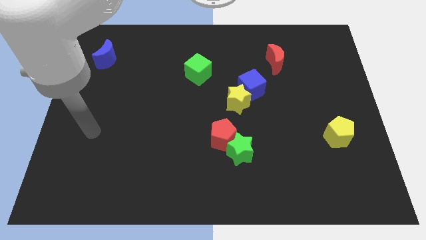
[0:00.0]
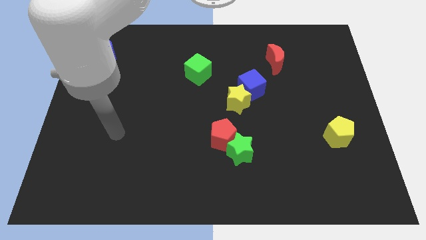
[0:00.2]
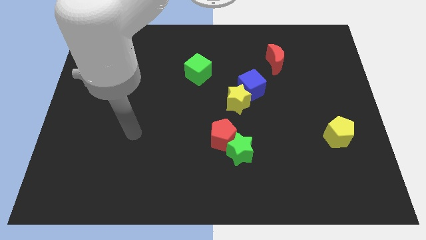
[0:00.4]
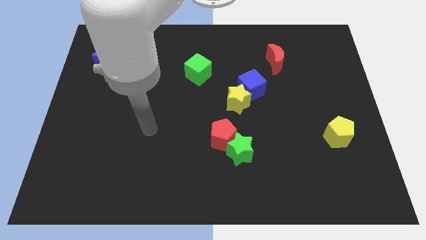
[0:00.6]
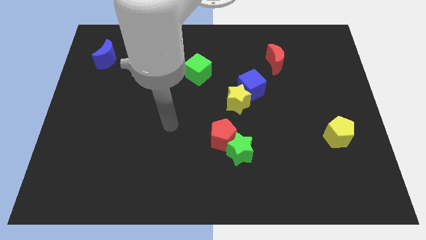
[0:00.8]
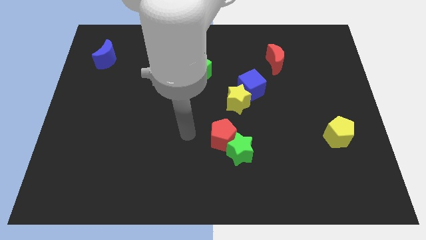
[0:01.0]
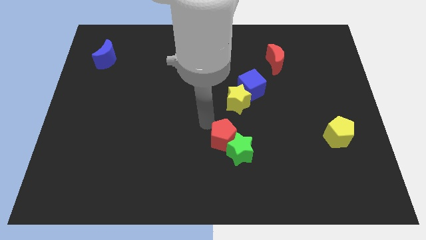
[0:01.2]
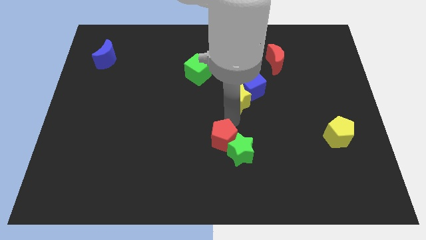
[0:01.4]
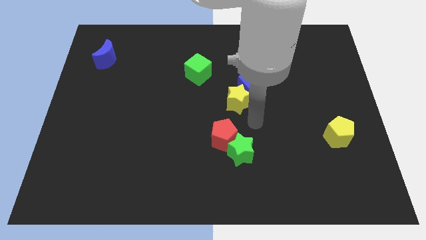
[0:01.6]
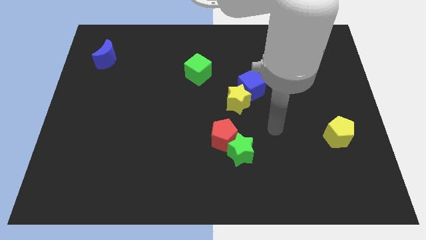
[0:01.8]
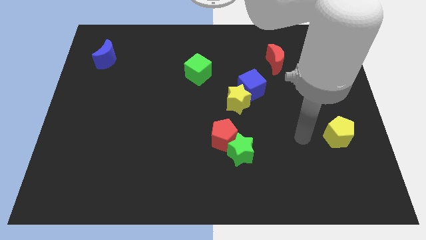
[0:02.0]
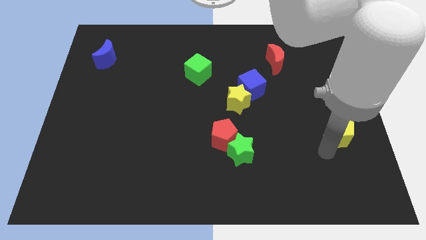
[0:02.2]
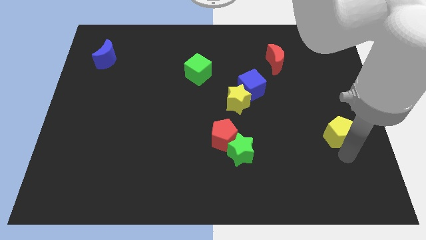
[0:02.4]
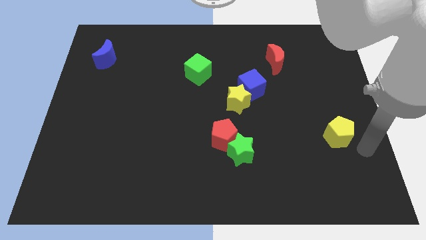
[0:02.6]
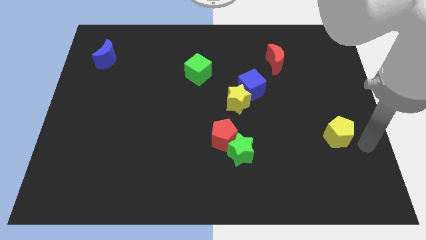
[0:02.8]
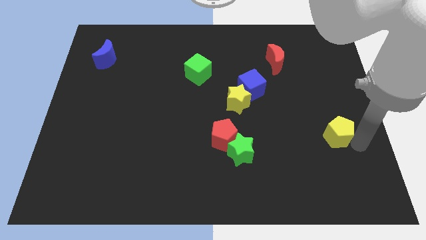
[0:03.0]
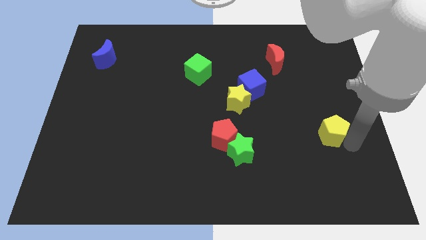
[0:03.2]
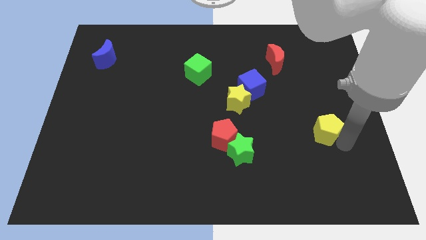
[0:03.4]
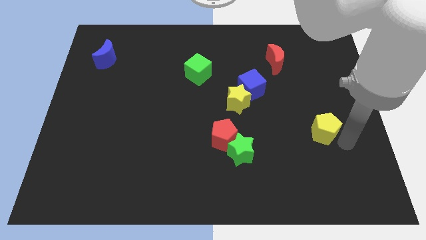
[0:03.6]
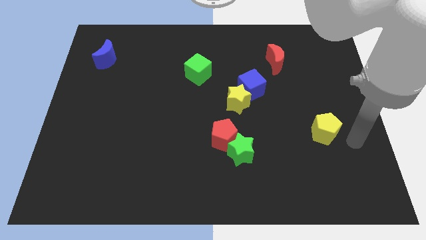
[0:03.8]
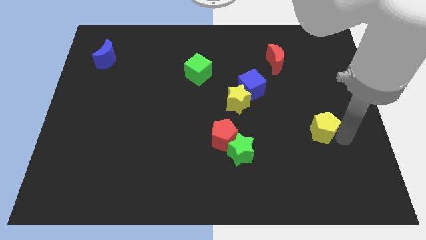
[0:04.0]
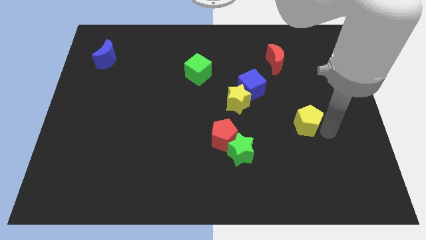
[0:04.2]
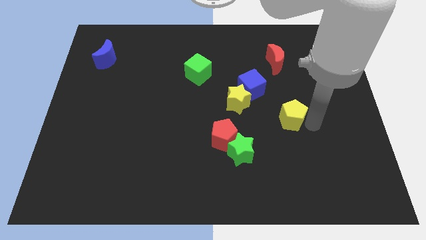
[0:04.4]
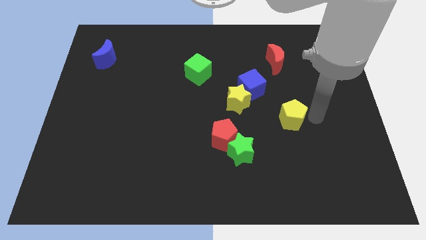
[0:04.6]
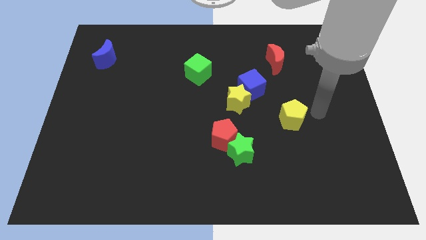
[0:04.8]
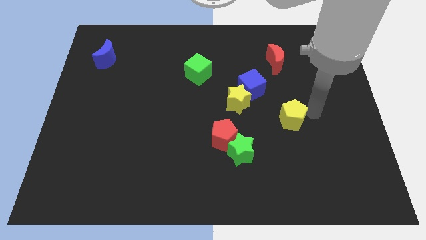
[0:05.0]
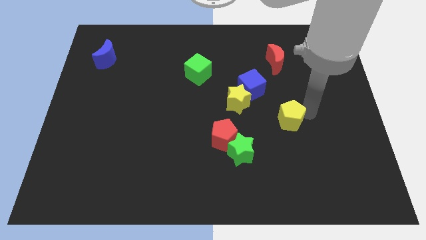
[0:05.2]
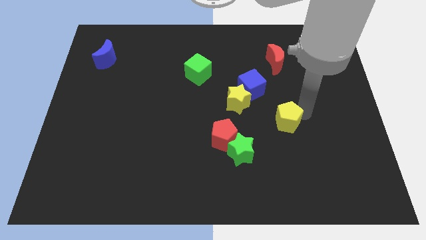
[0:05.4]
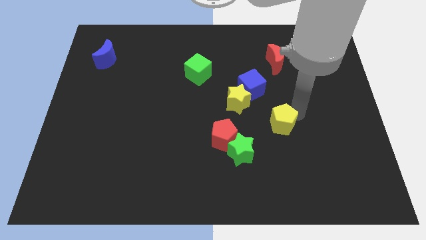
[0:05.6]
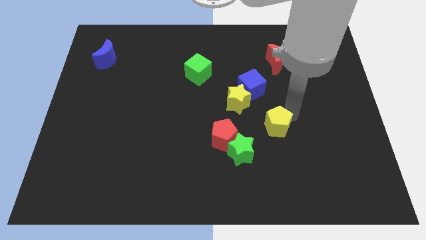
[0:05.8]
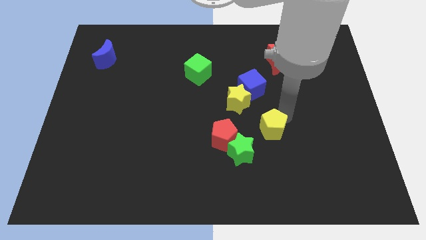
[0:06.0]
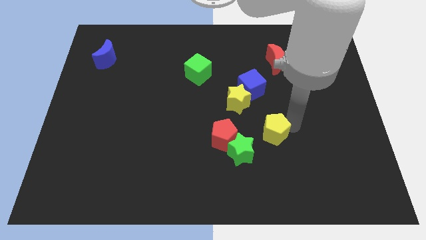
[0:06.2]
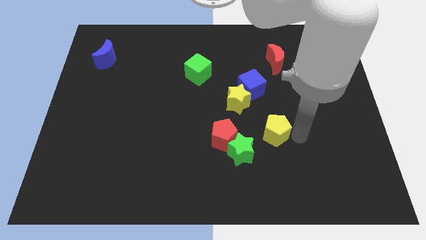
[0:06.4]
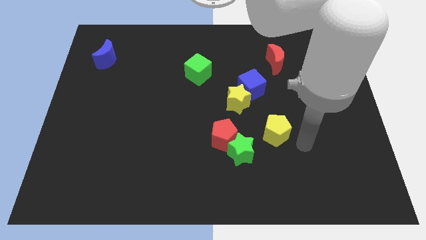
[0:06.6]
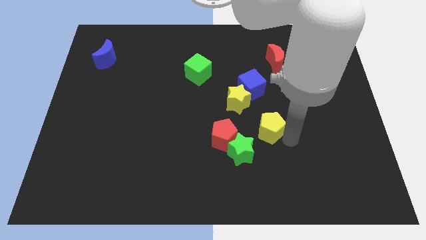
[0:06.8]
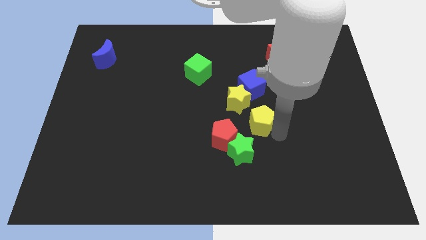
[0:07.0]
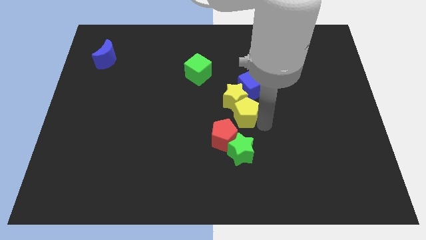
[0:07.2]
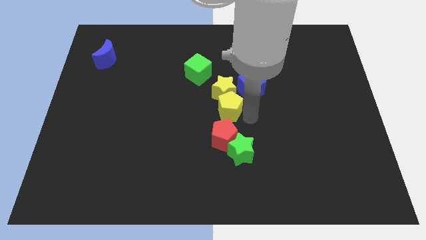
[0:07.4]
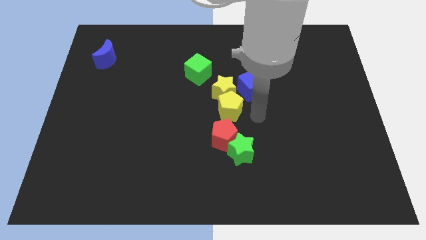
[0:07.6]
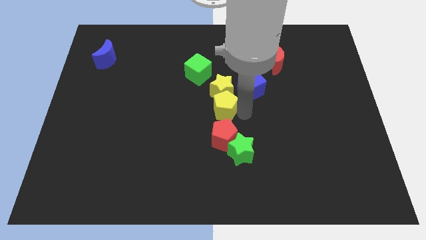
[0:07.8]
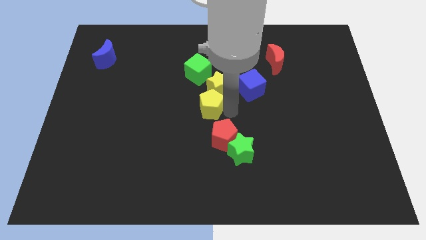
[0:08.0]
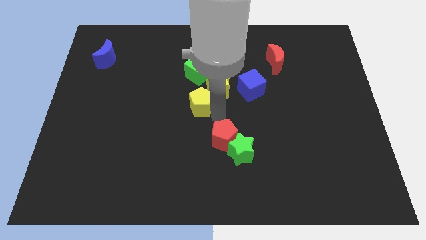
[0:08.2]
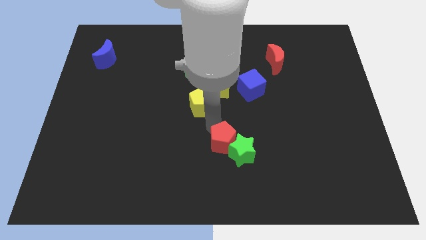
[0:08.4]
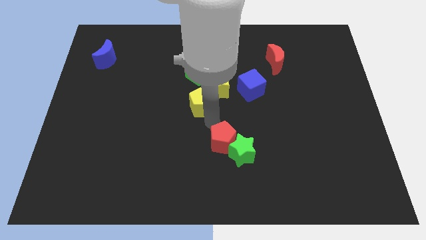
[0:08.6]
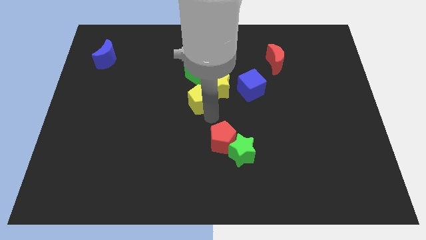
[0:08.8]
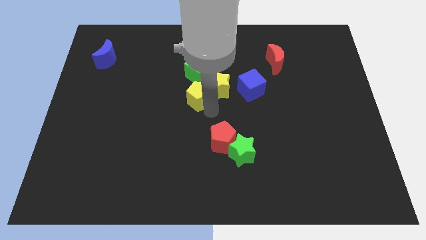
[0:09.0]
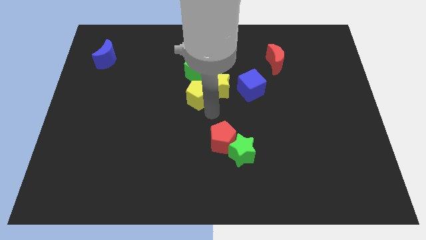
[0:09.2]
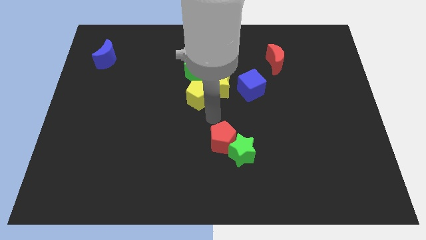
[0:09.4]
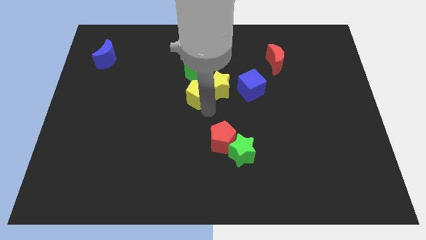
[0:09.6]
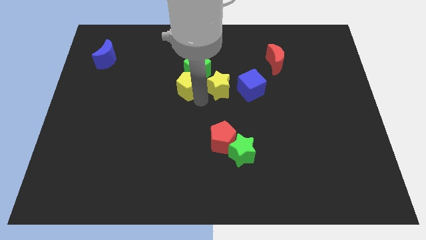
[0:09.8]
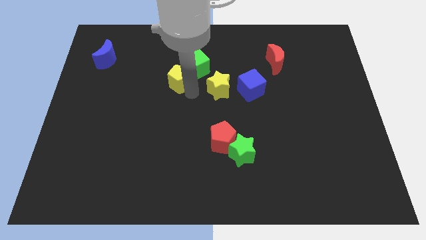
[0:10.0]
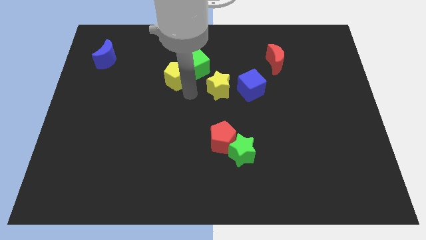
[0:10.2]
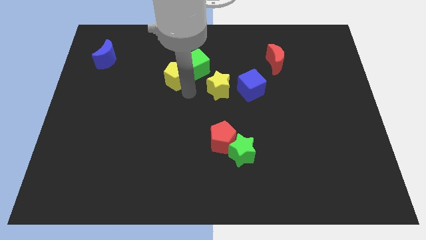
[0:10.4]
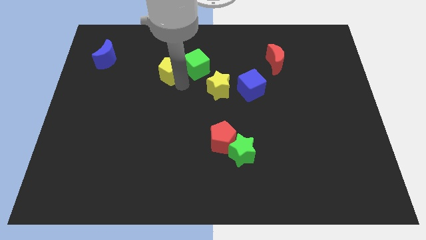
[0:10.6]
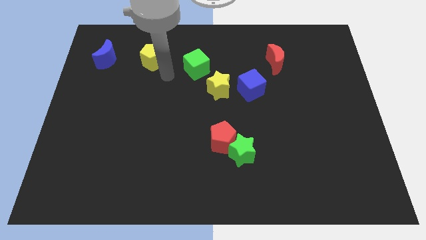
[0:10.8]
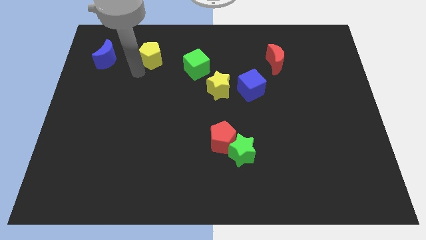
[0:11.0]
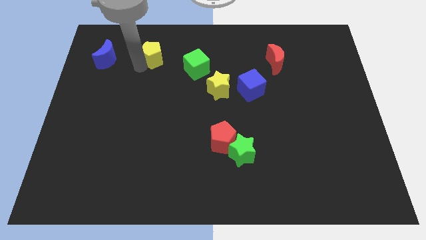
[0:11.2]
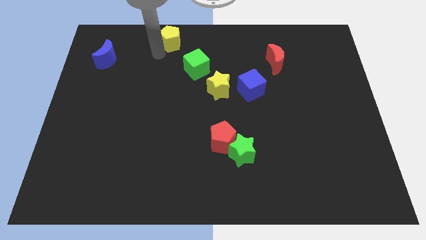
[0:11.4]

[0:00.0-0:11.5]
put the yellow pentagon to the top side

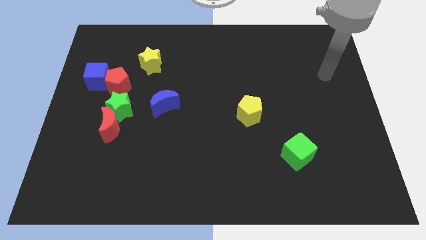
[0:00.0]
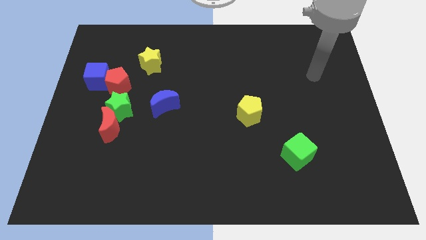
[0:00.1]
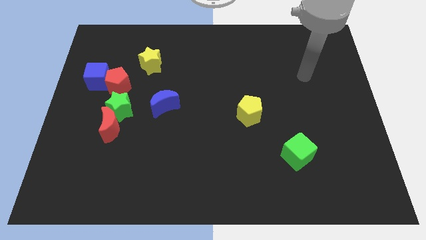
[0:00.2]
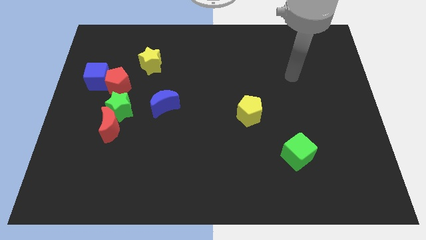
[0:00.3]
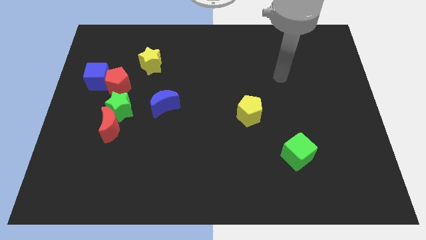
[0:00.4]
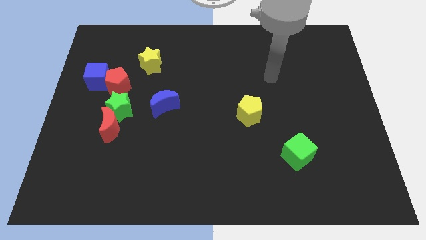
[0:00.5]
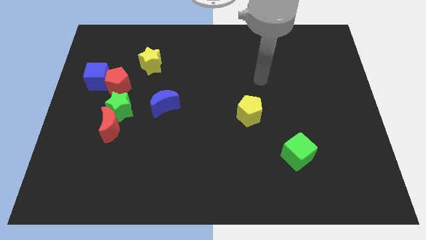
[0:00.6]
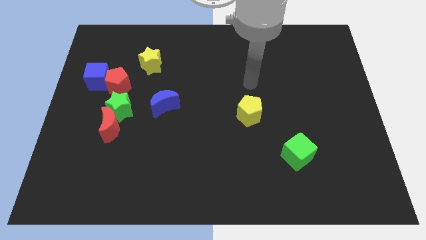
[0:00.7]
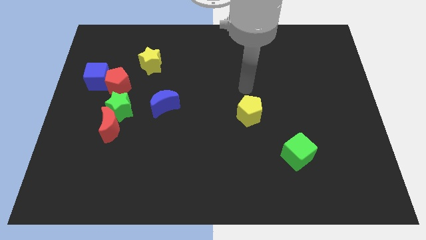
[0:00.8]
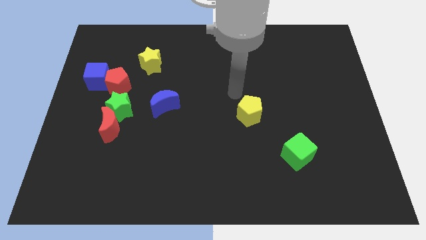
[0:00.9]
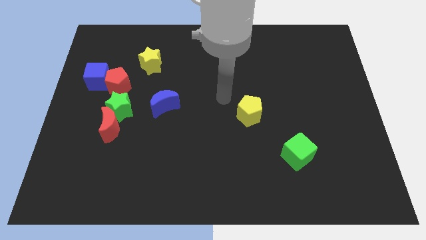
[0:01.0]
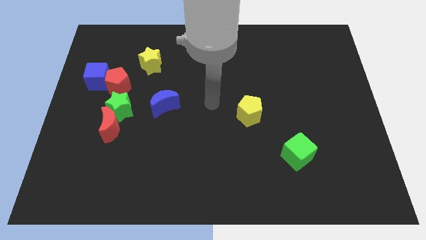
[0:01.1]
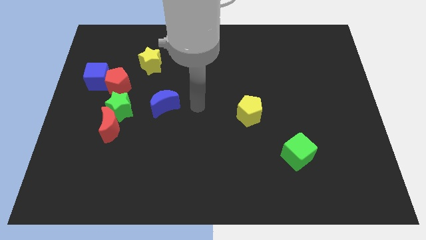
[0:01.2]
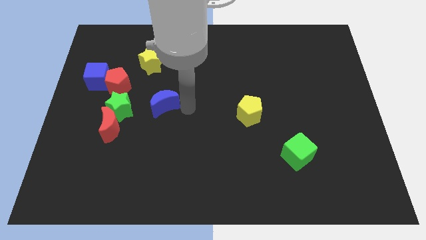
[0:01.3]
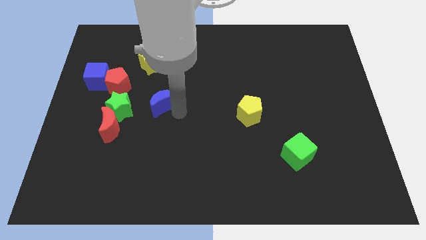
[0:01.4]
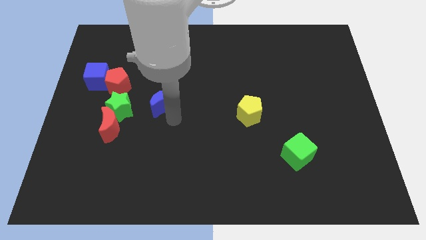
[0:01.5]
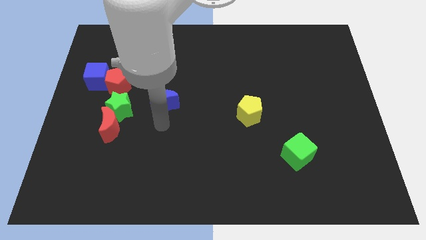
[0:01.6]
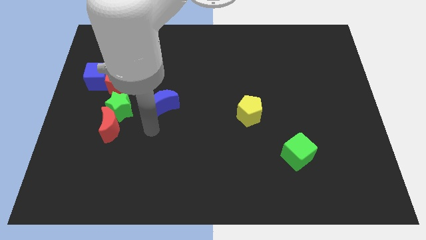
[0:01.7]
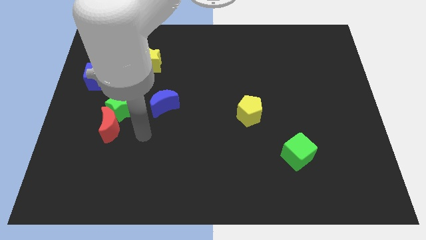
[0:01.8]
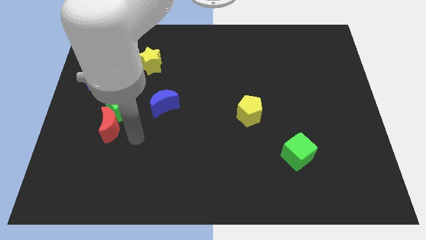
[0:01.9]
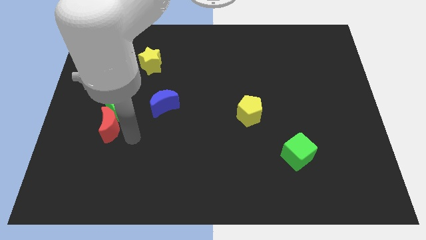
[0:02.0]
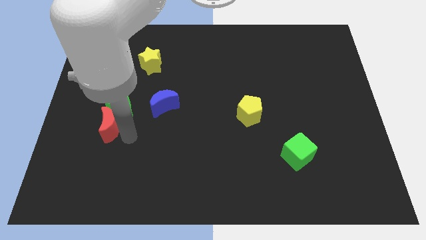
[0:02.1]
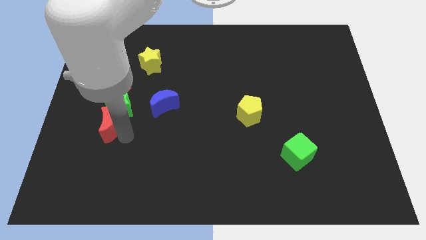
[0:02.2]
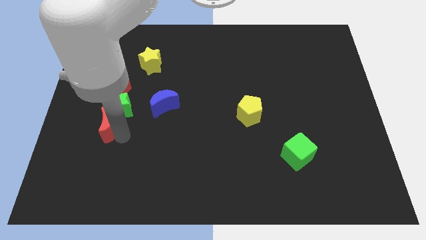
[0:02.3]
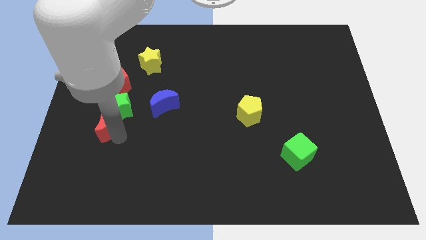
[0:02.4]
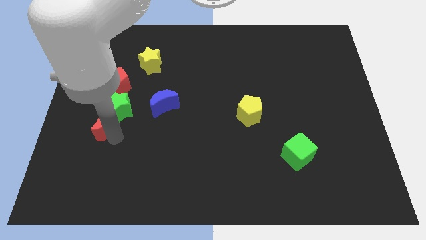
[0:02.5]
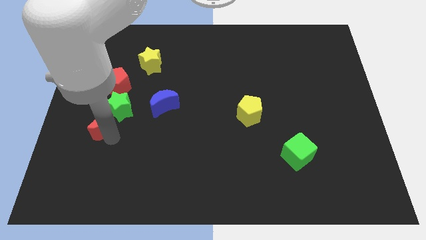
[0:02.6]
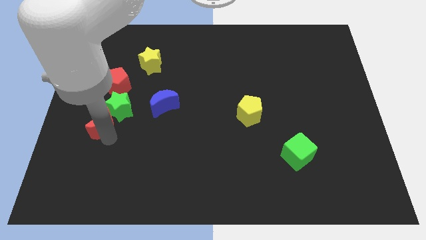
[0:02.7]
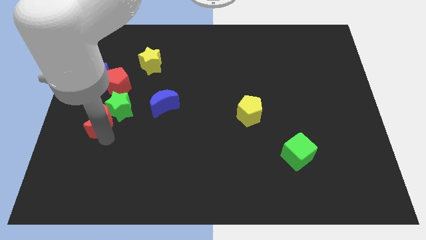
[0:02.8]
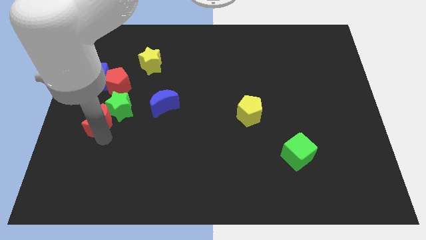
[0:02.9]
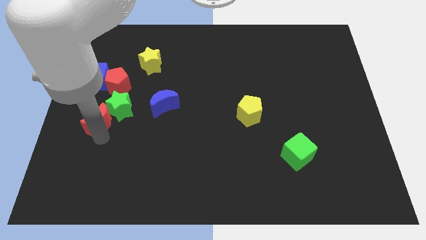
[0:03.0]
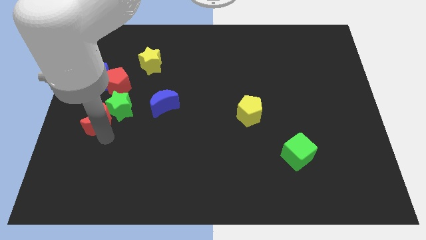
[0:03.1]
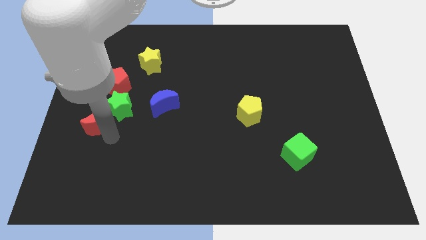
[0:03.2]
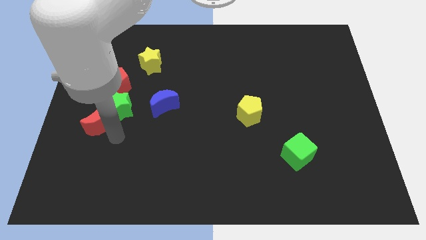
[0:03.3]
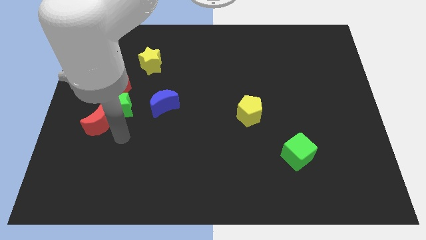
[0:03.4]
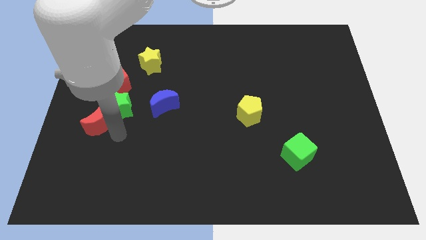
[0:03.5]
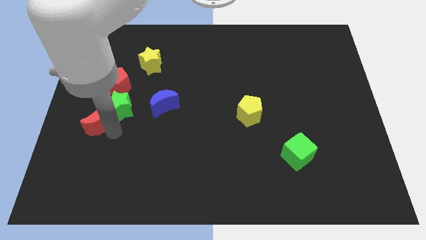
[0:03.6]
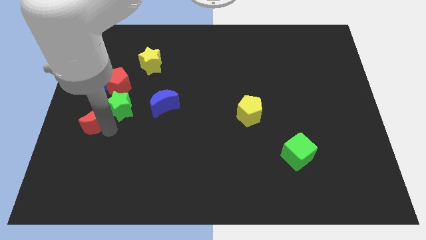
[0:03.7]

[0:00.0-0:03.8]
push the red moon to the left side
